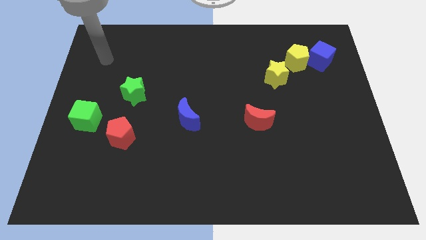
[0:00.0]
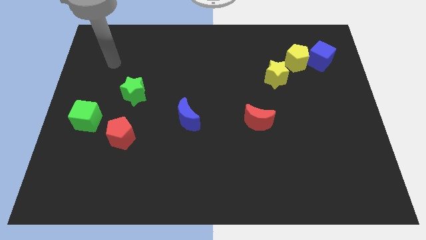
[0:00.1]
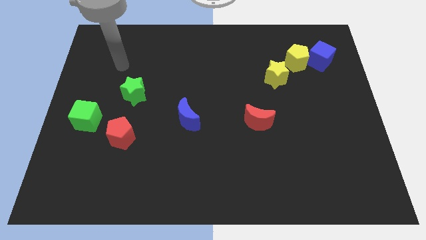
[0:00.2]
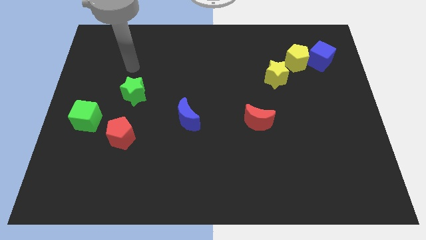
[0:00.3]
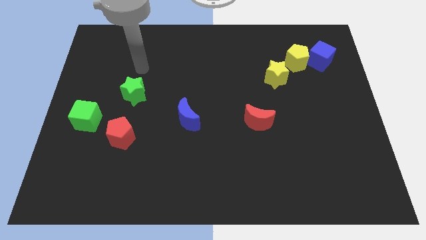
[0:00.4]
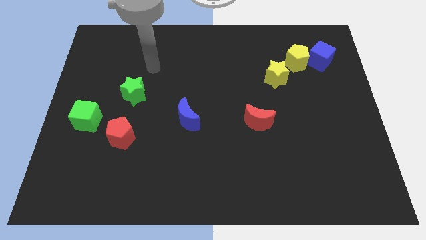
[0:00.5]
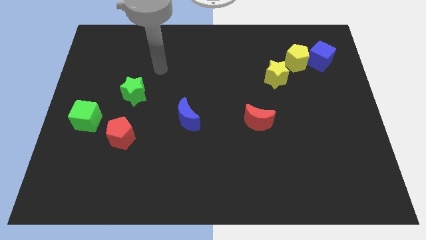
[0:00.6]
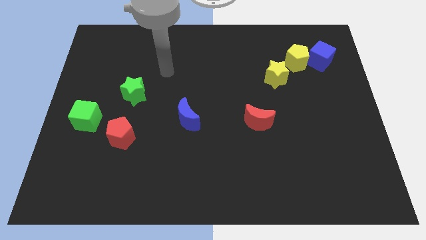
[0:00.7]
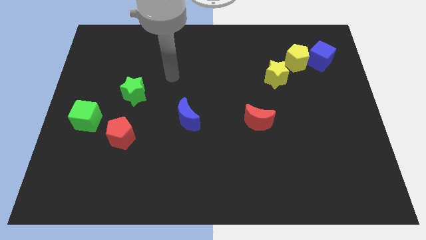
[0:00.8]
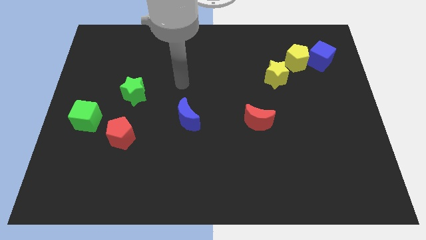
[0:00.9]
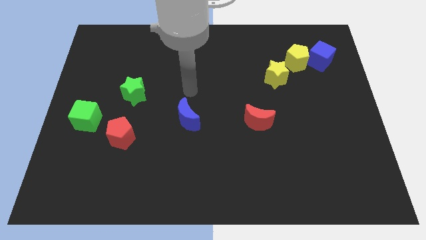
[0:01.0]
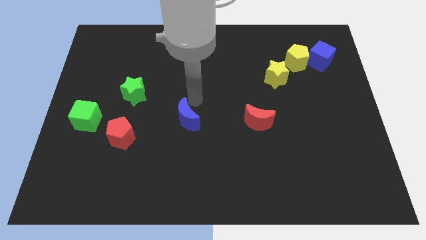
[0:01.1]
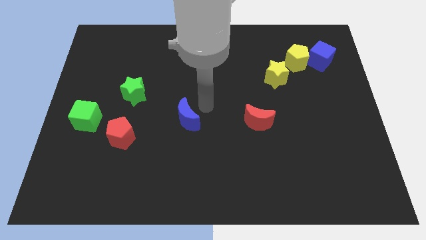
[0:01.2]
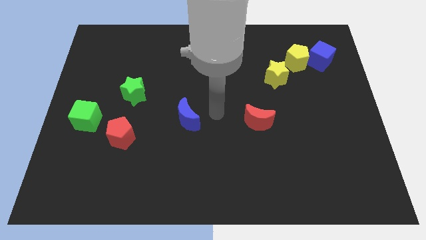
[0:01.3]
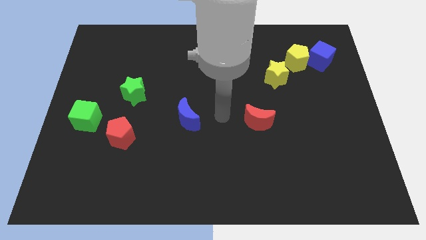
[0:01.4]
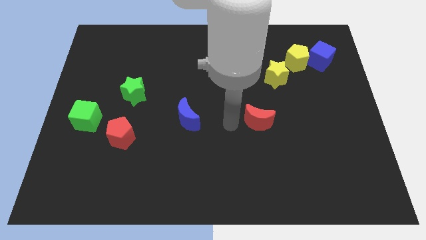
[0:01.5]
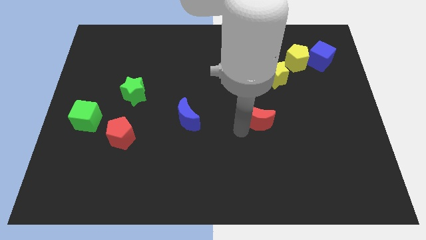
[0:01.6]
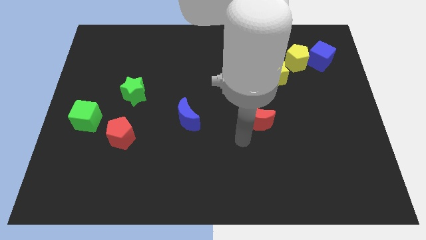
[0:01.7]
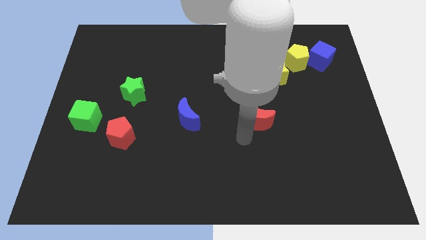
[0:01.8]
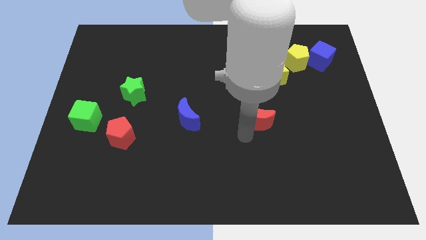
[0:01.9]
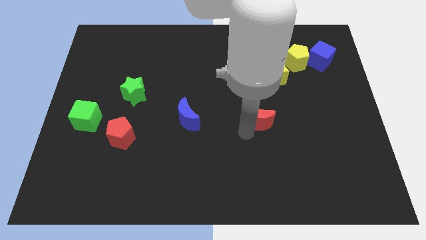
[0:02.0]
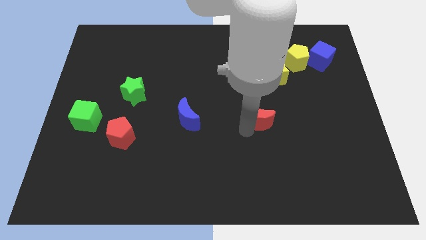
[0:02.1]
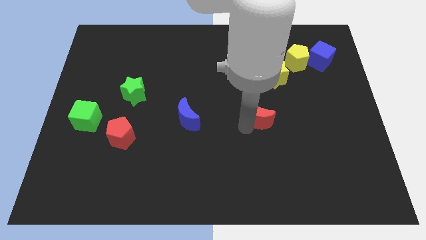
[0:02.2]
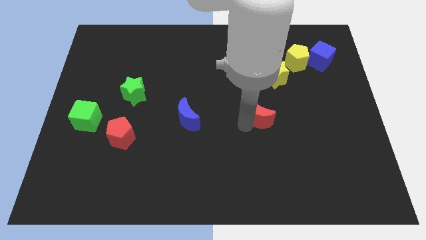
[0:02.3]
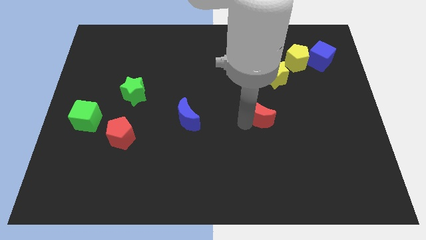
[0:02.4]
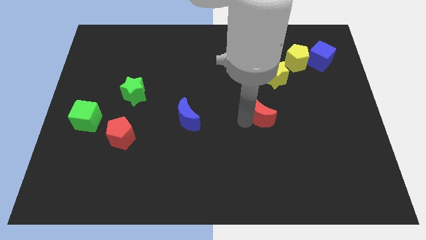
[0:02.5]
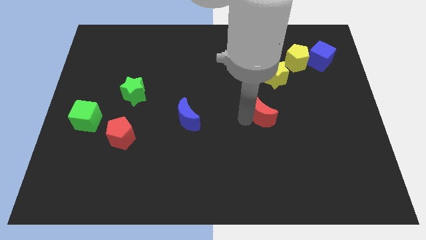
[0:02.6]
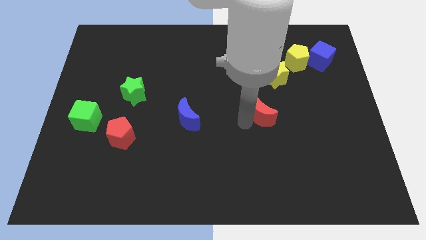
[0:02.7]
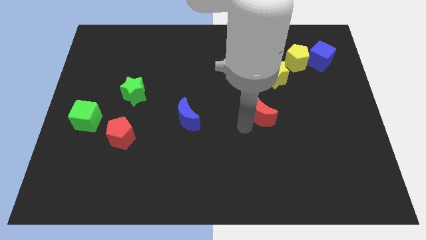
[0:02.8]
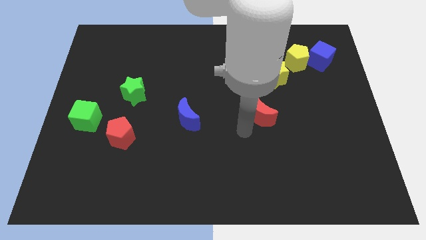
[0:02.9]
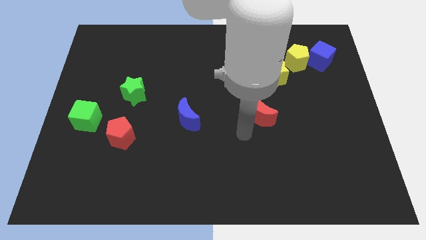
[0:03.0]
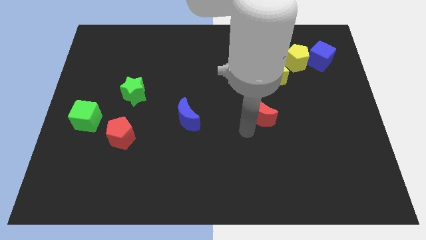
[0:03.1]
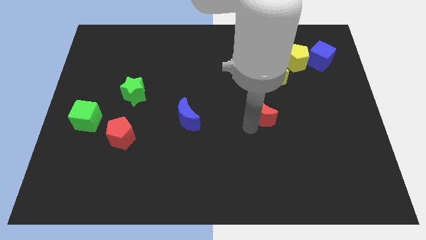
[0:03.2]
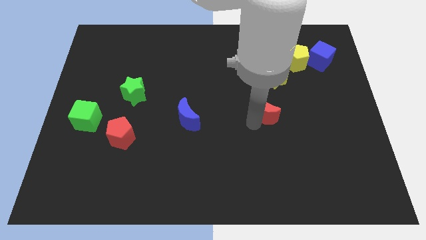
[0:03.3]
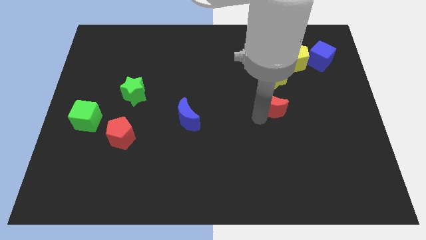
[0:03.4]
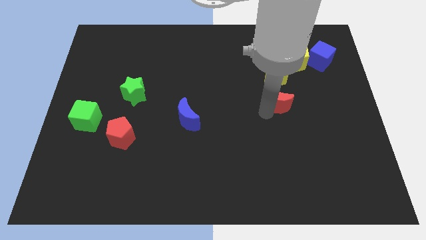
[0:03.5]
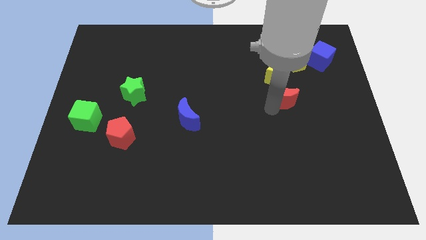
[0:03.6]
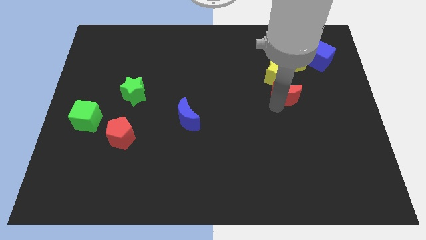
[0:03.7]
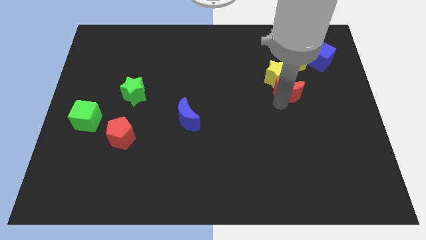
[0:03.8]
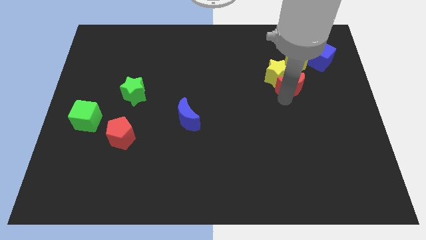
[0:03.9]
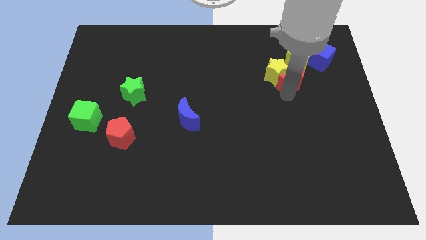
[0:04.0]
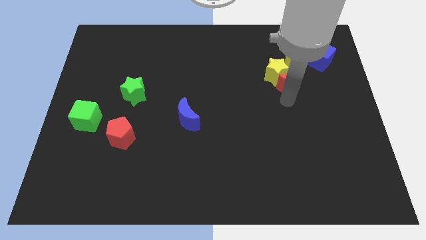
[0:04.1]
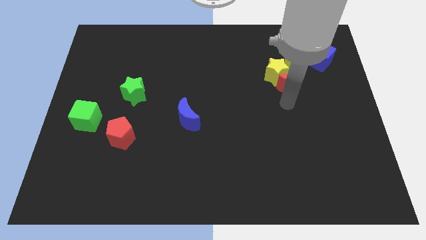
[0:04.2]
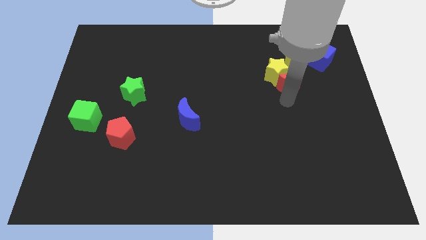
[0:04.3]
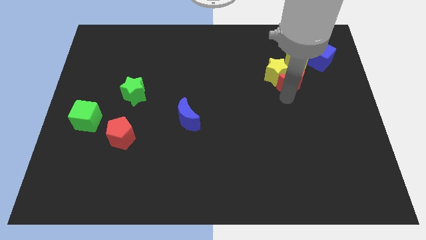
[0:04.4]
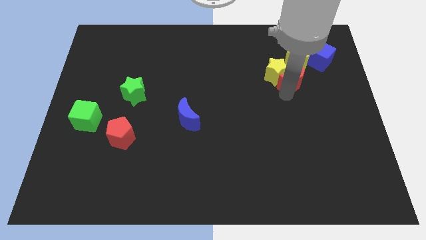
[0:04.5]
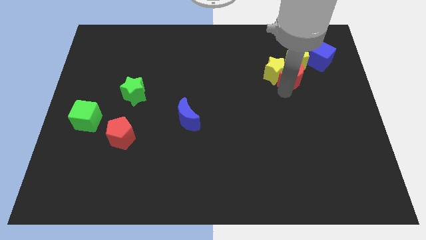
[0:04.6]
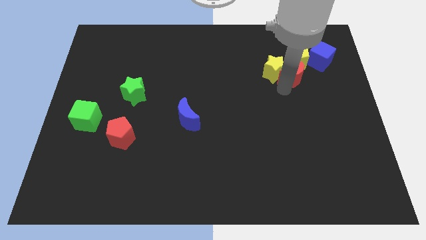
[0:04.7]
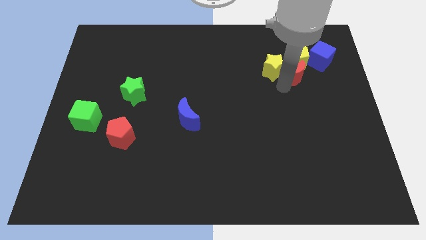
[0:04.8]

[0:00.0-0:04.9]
move the red moon next to the yellow pentagon

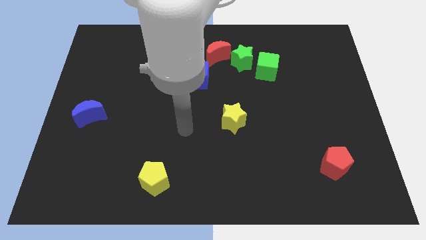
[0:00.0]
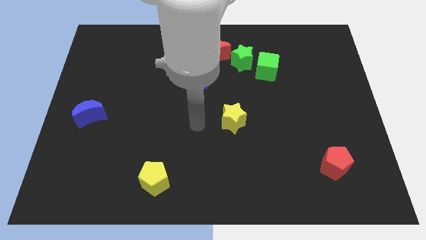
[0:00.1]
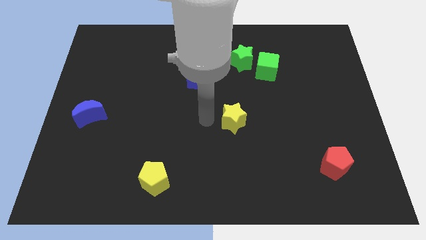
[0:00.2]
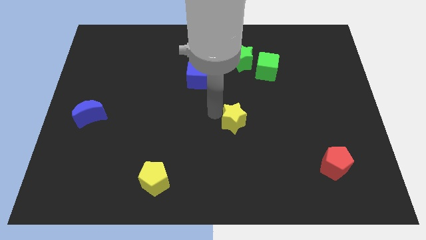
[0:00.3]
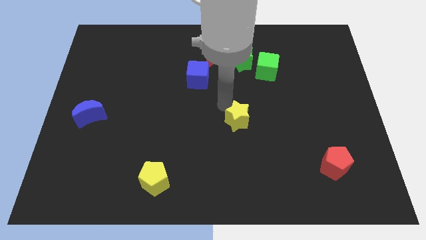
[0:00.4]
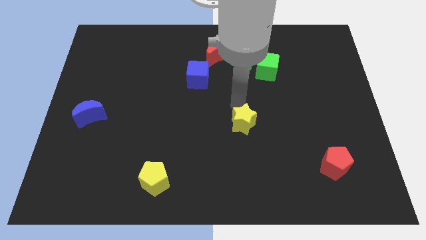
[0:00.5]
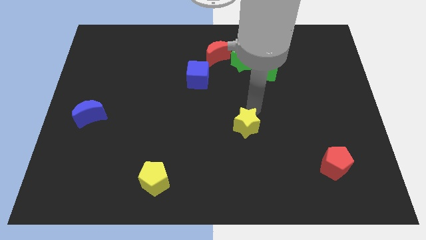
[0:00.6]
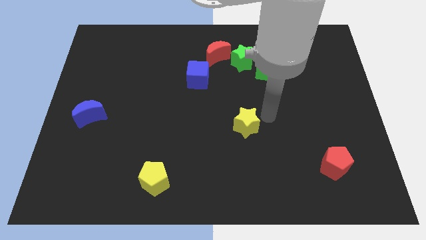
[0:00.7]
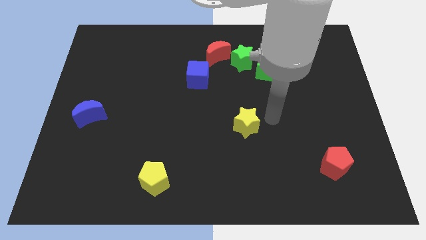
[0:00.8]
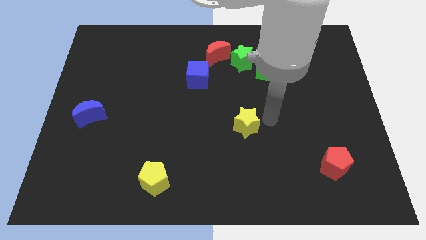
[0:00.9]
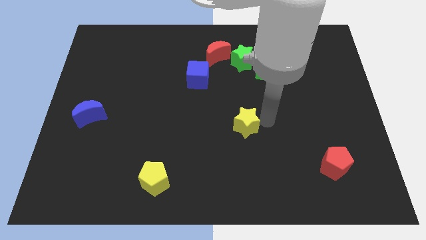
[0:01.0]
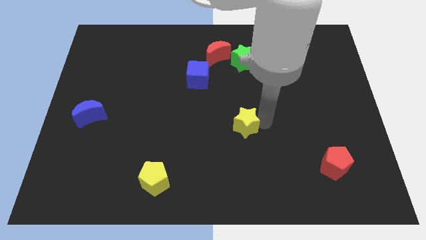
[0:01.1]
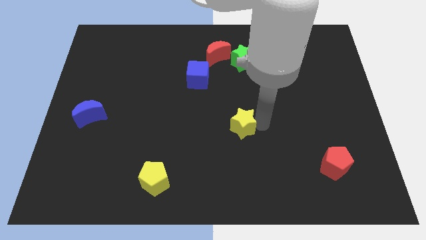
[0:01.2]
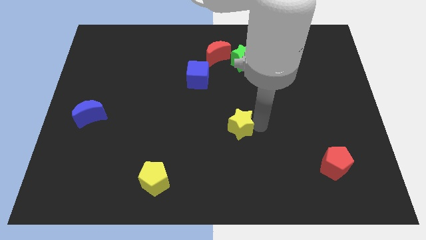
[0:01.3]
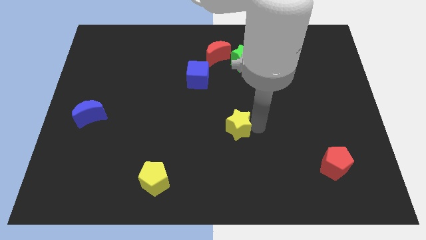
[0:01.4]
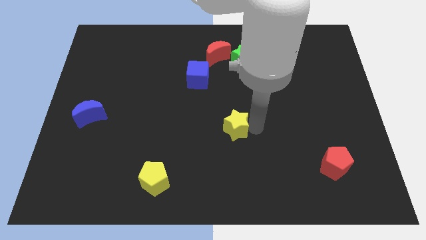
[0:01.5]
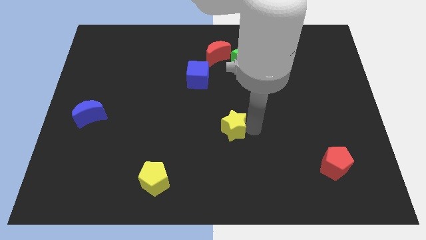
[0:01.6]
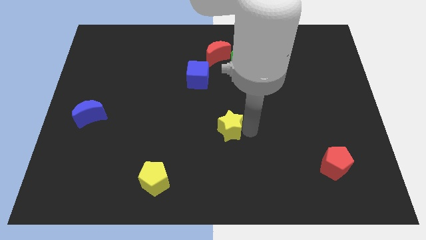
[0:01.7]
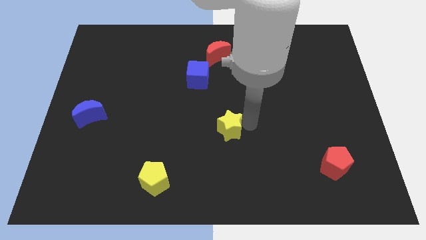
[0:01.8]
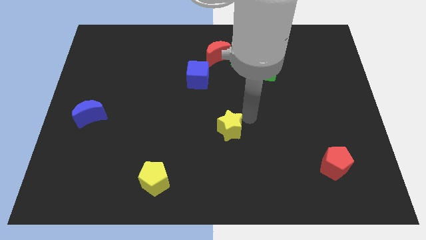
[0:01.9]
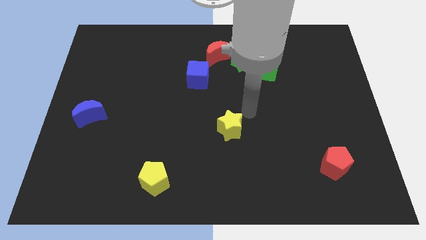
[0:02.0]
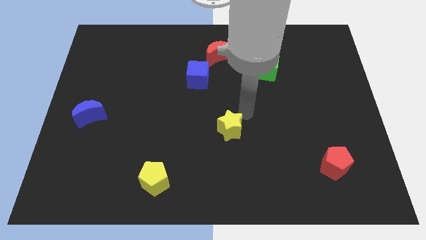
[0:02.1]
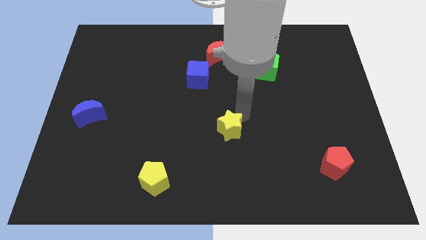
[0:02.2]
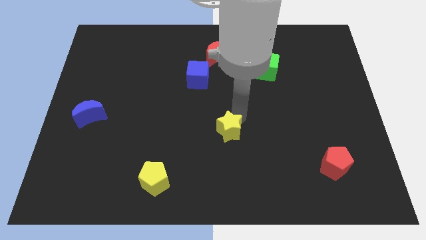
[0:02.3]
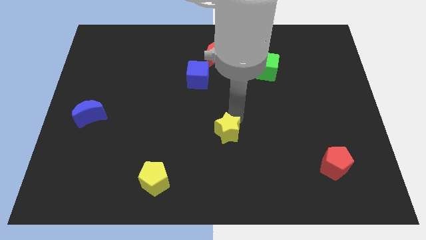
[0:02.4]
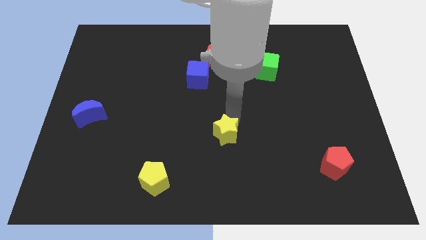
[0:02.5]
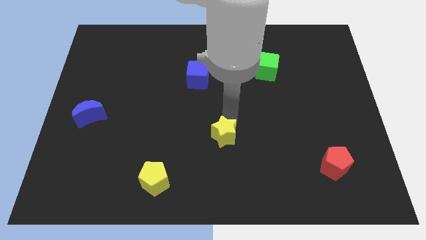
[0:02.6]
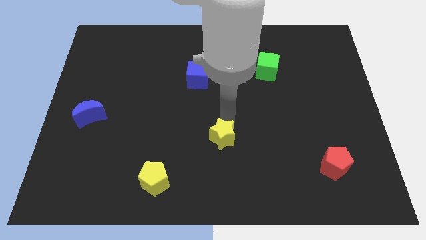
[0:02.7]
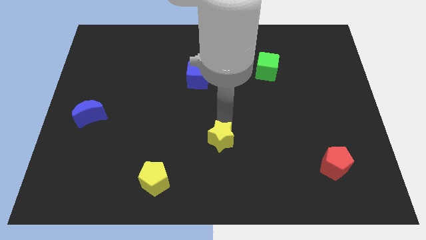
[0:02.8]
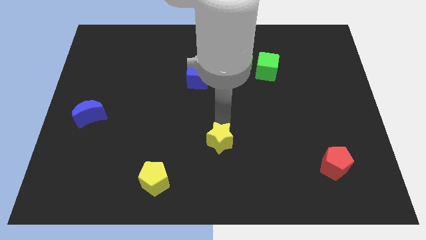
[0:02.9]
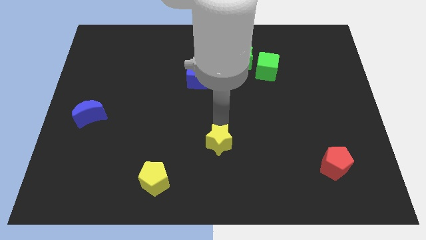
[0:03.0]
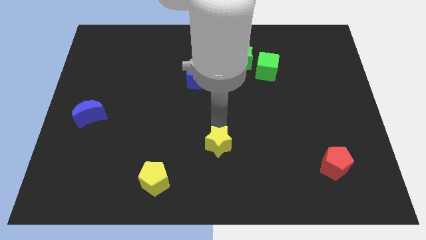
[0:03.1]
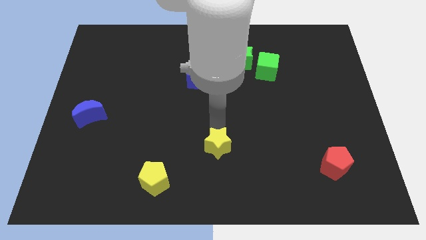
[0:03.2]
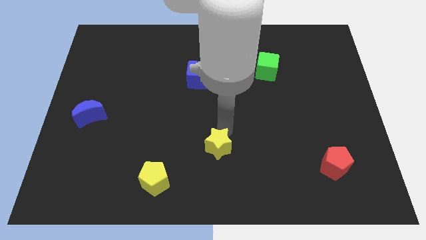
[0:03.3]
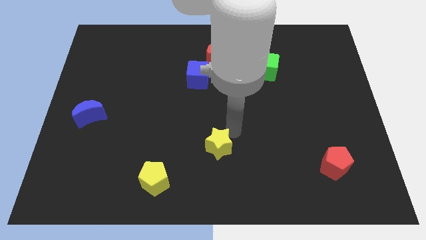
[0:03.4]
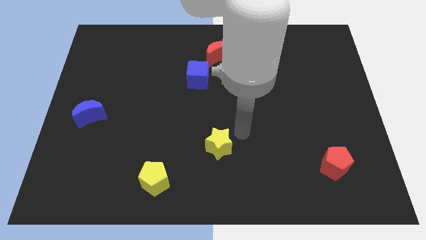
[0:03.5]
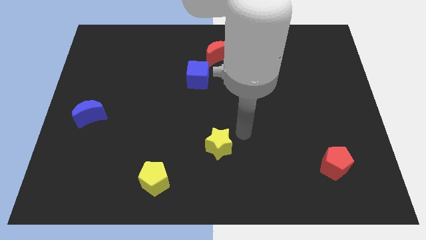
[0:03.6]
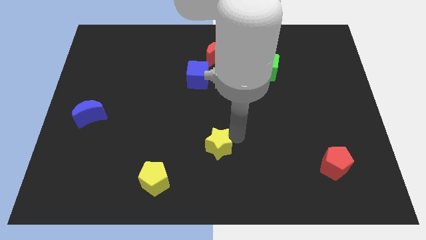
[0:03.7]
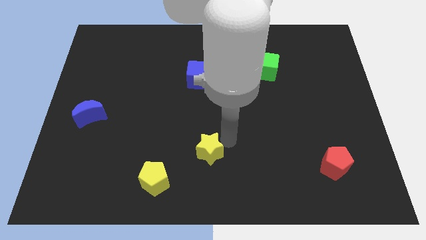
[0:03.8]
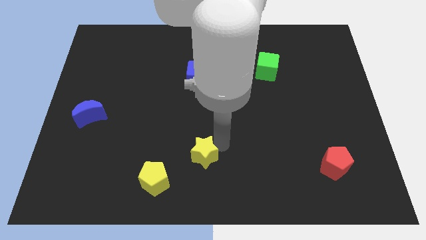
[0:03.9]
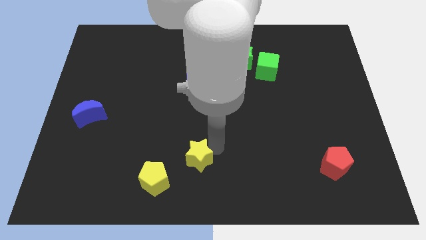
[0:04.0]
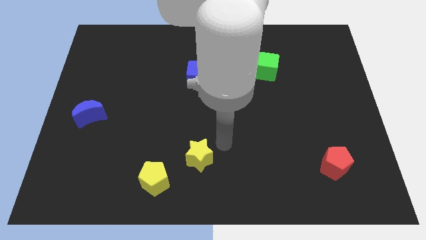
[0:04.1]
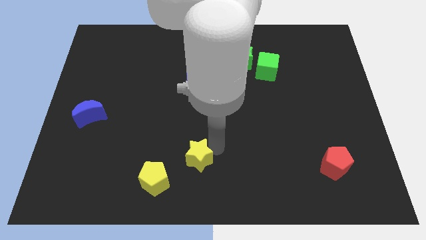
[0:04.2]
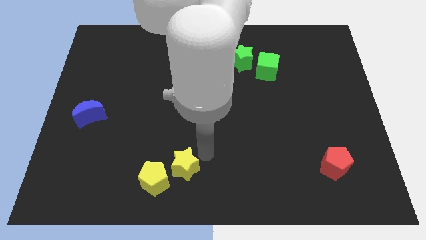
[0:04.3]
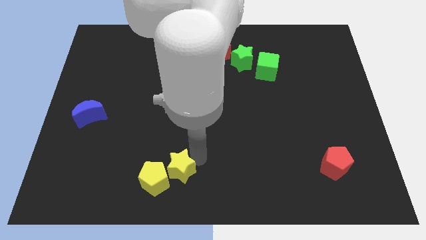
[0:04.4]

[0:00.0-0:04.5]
put the yellow star next to the yellow pentagon
